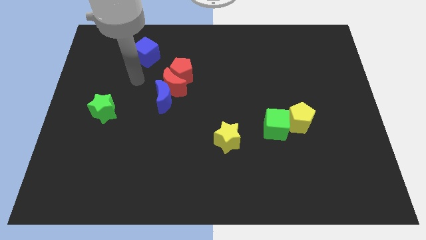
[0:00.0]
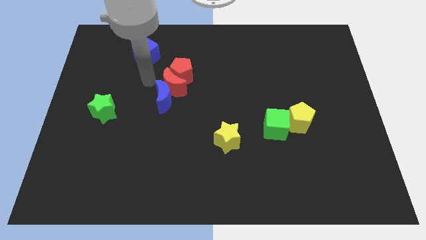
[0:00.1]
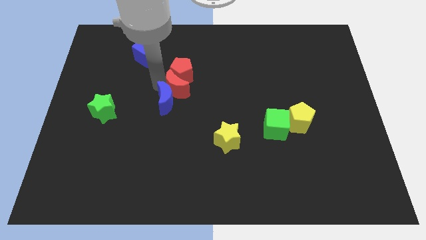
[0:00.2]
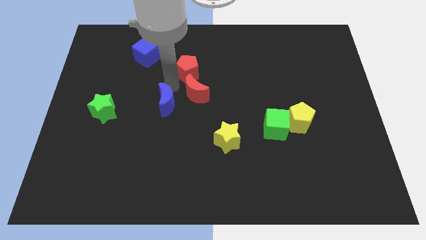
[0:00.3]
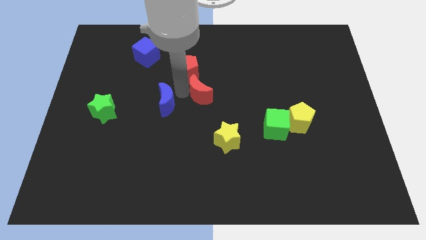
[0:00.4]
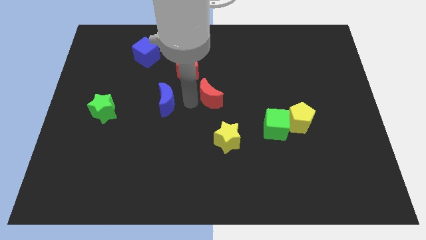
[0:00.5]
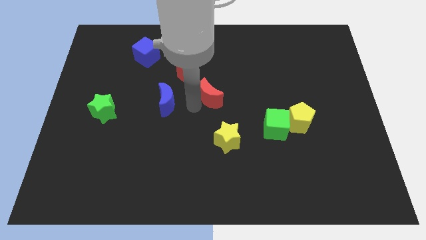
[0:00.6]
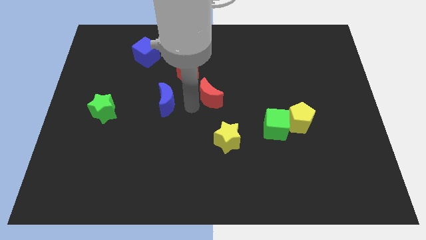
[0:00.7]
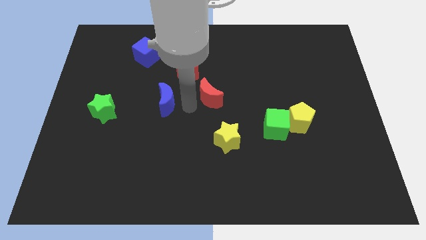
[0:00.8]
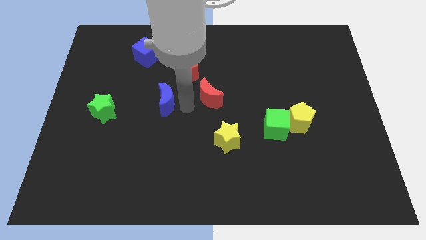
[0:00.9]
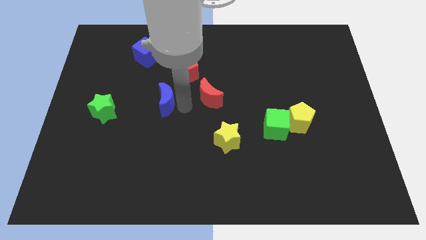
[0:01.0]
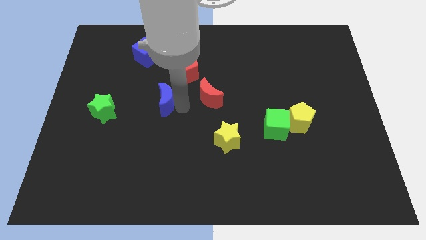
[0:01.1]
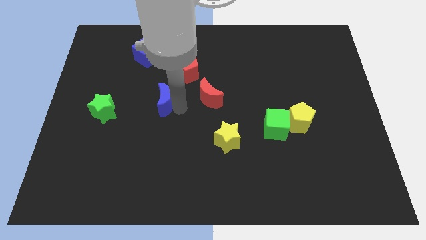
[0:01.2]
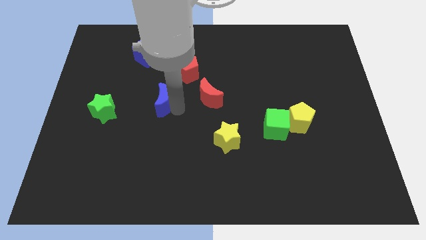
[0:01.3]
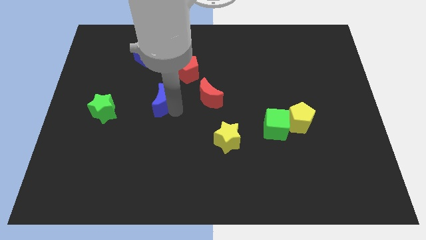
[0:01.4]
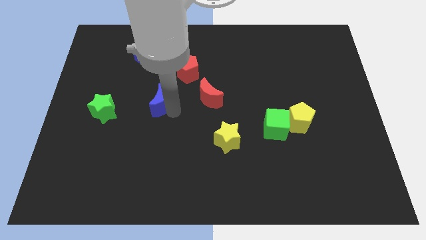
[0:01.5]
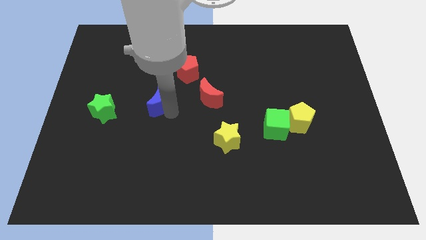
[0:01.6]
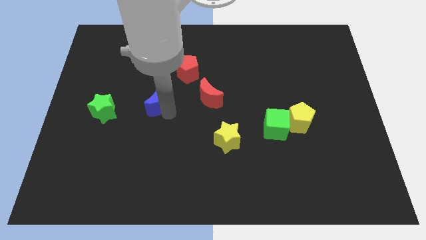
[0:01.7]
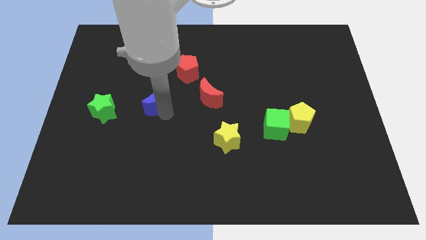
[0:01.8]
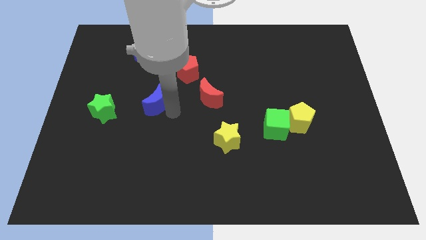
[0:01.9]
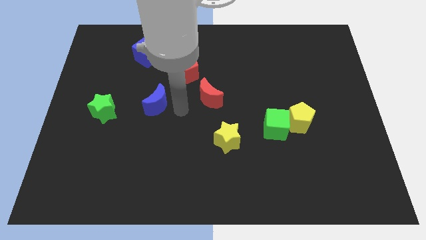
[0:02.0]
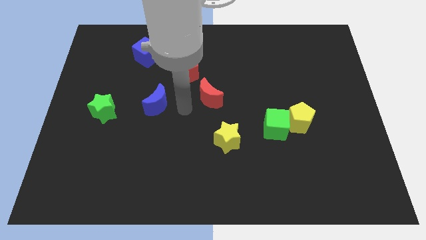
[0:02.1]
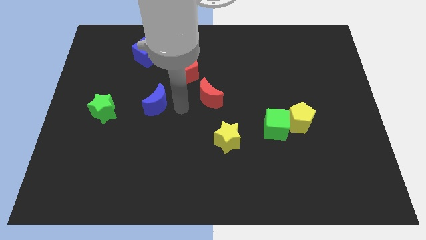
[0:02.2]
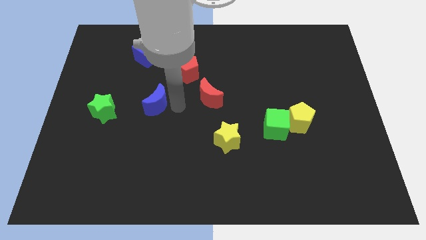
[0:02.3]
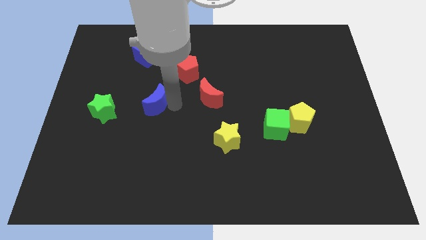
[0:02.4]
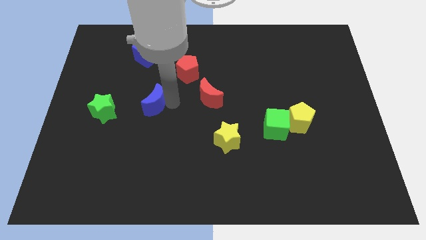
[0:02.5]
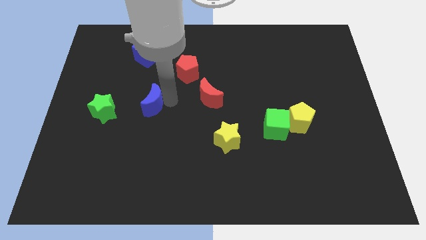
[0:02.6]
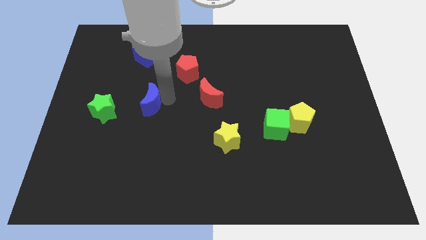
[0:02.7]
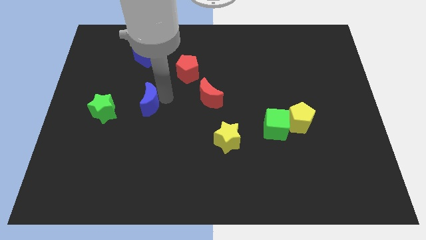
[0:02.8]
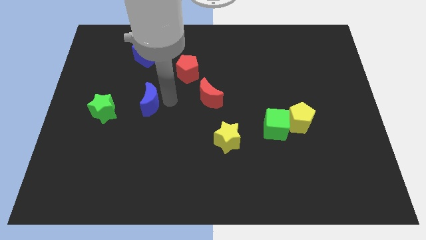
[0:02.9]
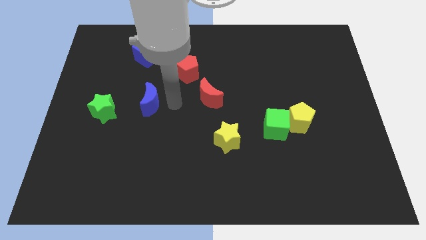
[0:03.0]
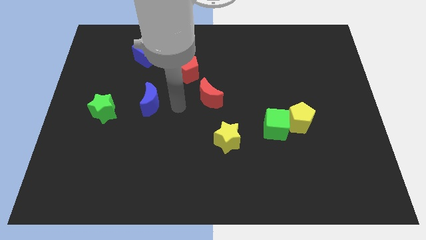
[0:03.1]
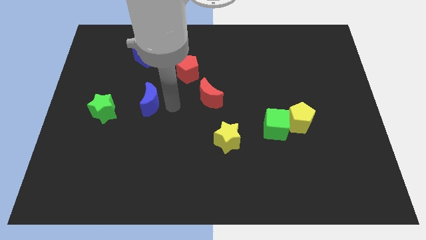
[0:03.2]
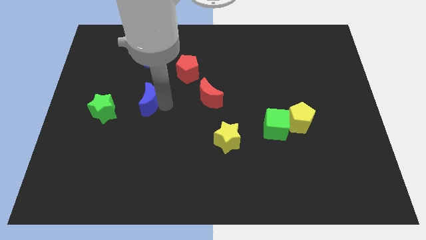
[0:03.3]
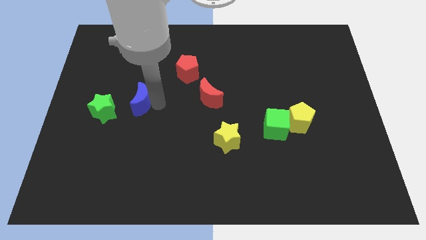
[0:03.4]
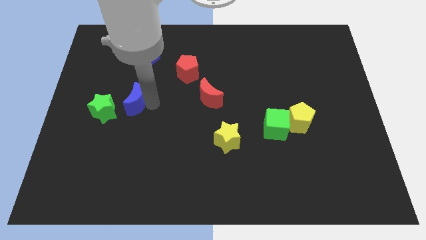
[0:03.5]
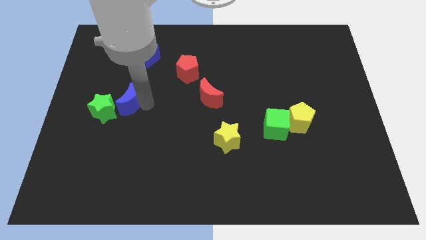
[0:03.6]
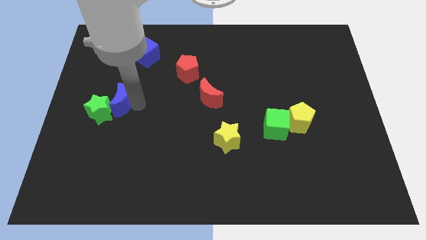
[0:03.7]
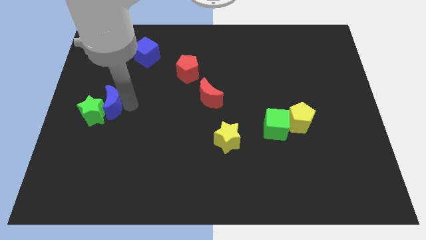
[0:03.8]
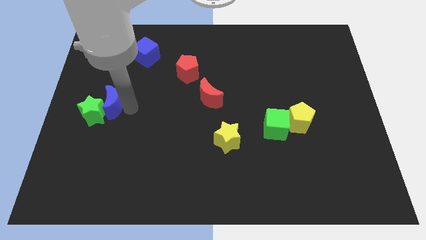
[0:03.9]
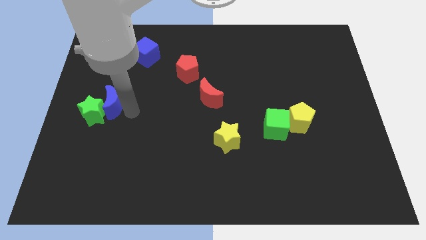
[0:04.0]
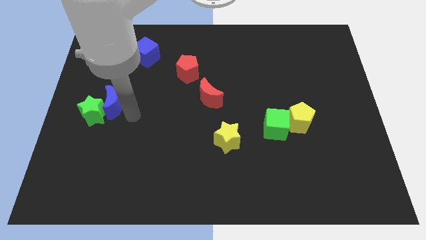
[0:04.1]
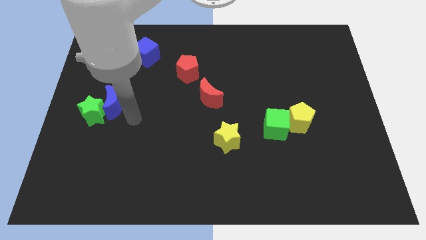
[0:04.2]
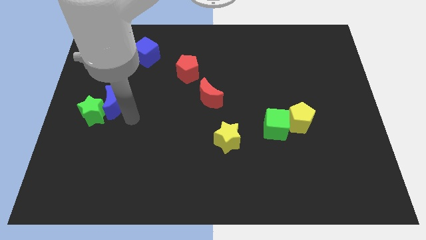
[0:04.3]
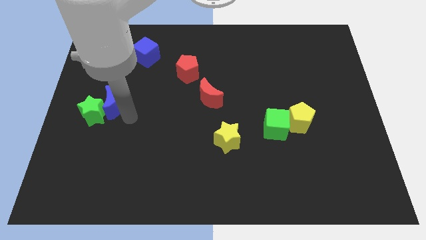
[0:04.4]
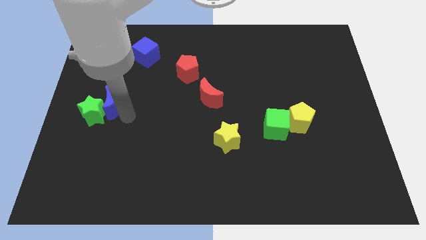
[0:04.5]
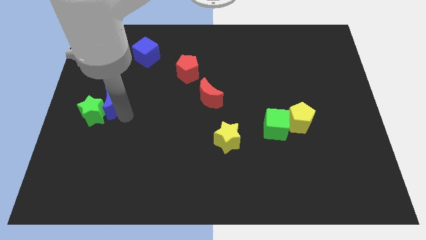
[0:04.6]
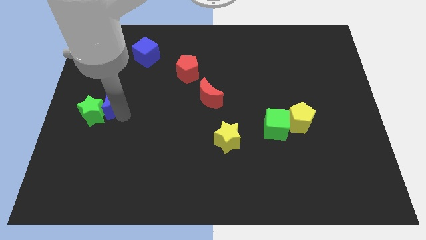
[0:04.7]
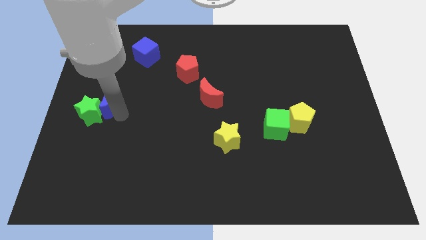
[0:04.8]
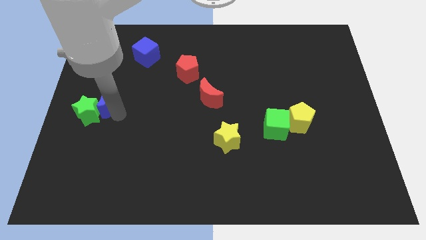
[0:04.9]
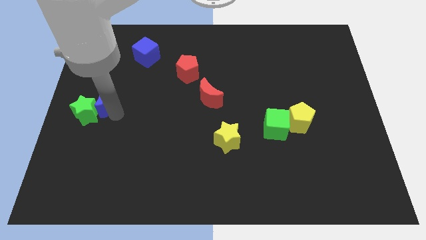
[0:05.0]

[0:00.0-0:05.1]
slide the blue moon to the center left

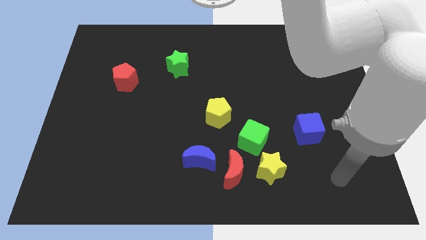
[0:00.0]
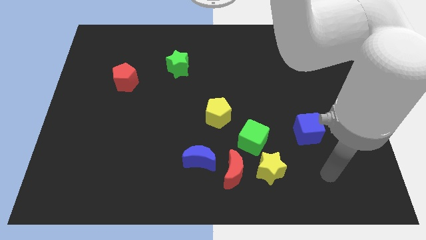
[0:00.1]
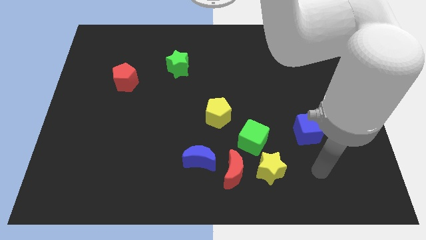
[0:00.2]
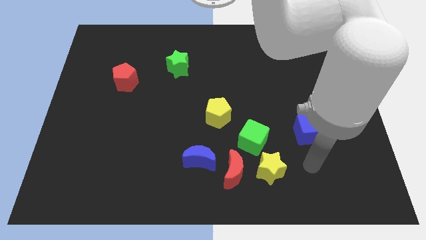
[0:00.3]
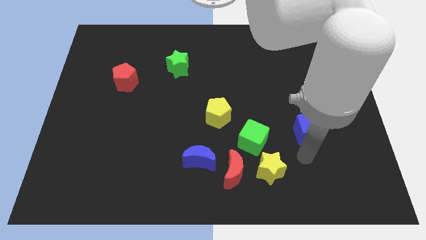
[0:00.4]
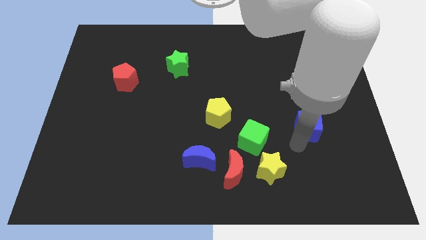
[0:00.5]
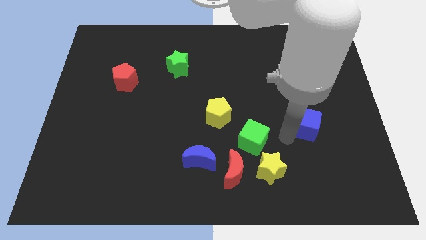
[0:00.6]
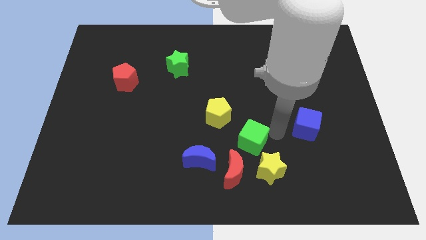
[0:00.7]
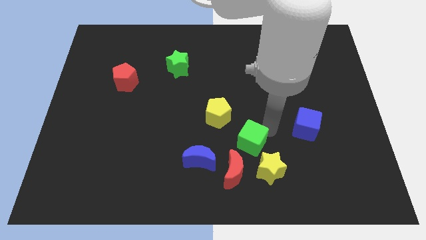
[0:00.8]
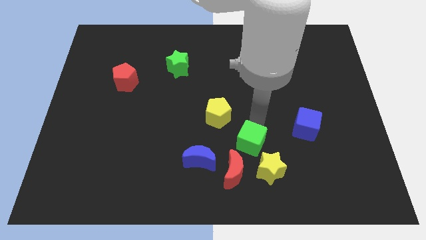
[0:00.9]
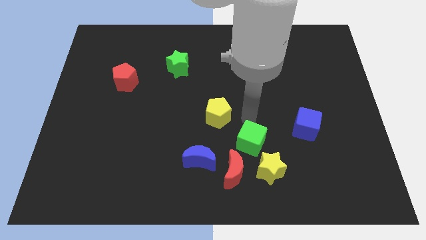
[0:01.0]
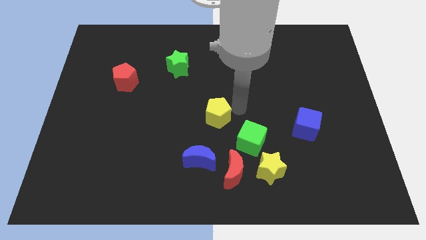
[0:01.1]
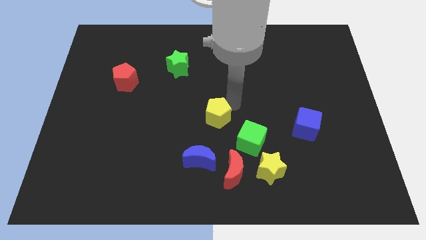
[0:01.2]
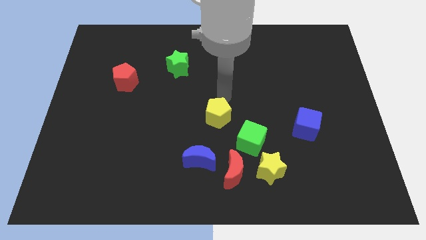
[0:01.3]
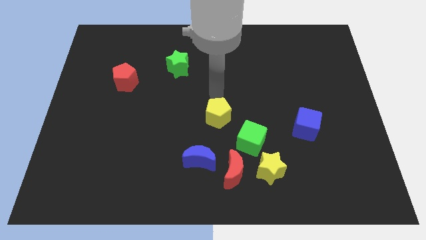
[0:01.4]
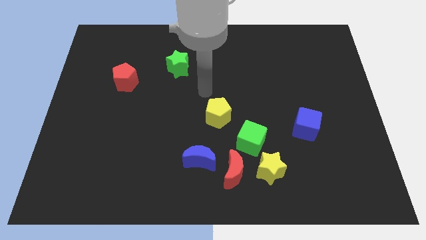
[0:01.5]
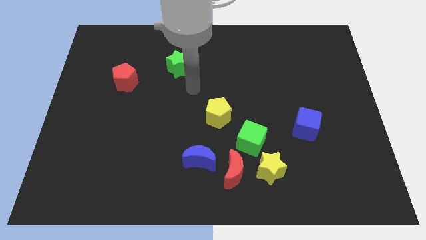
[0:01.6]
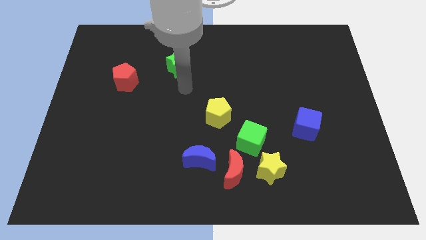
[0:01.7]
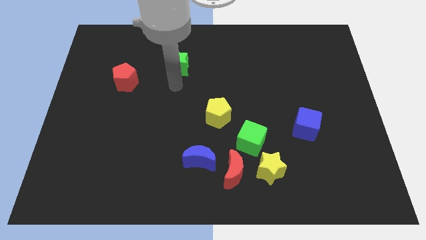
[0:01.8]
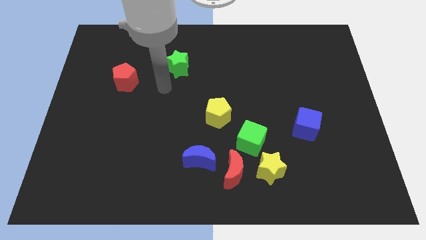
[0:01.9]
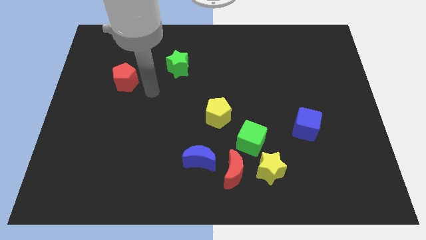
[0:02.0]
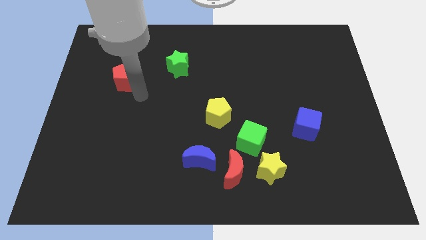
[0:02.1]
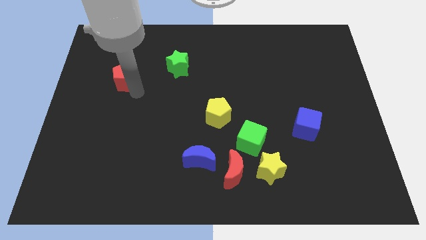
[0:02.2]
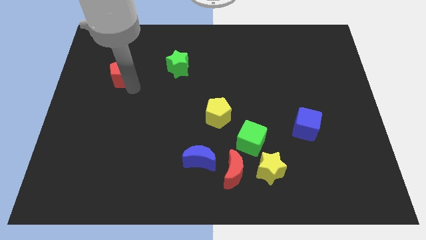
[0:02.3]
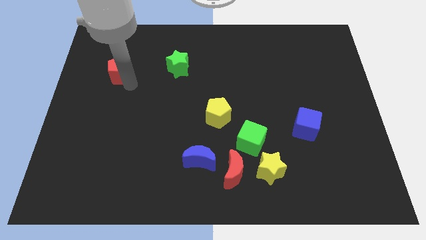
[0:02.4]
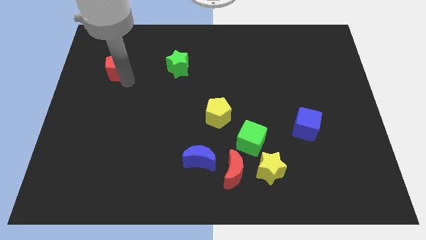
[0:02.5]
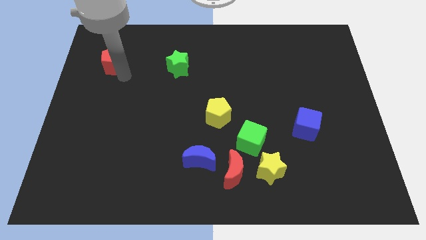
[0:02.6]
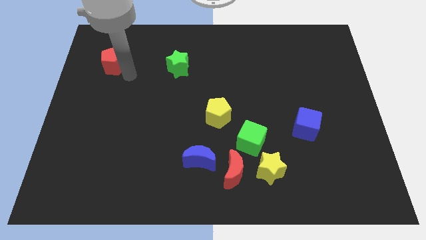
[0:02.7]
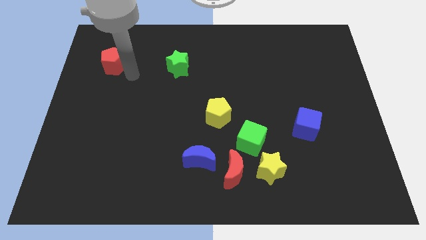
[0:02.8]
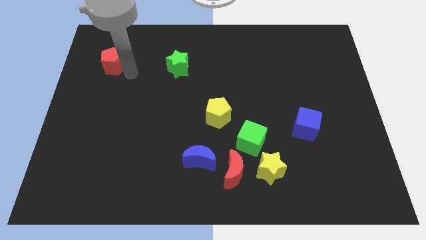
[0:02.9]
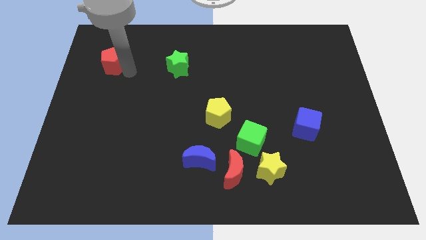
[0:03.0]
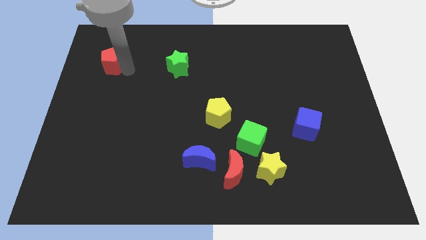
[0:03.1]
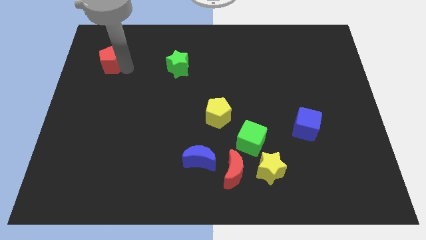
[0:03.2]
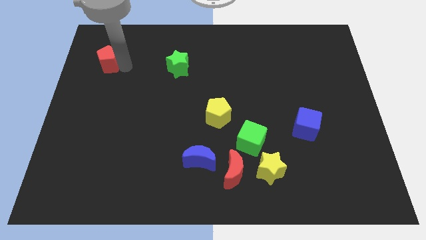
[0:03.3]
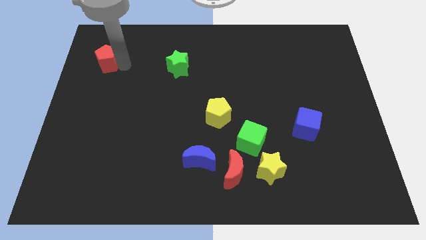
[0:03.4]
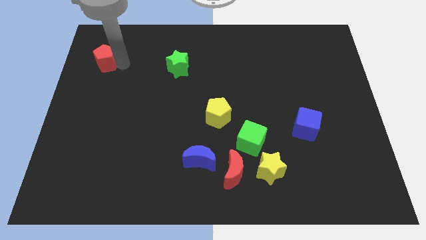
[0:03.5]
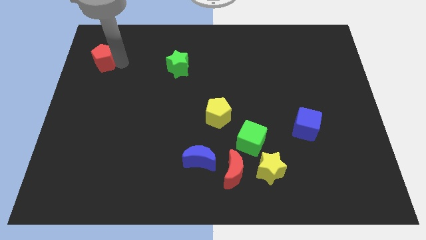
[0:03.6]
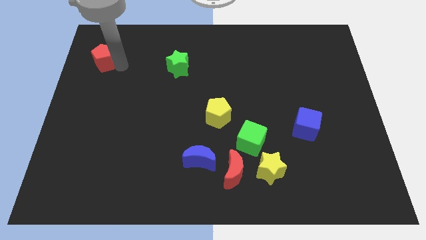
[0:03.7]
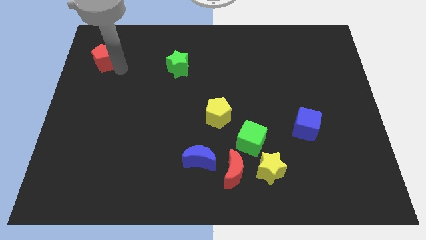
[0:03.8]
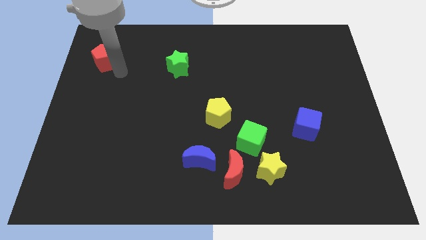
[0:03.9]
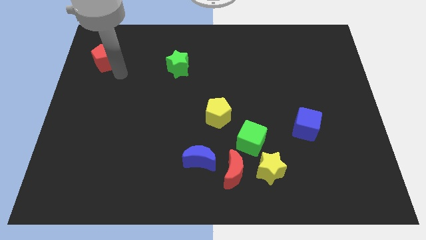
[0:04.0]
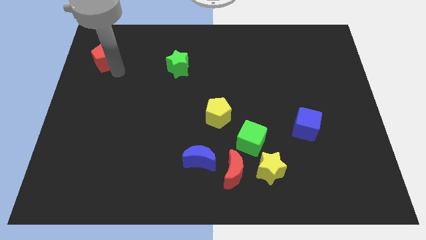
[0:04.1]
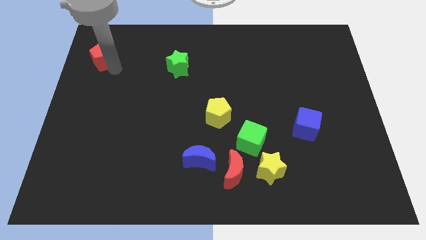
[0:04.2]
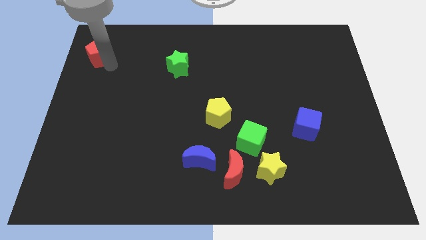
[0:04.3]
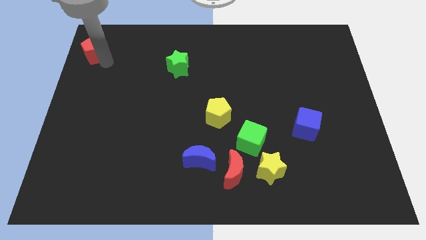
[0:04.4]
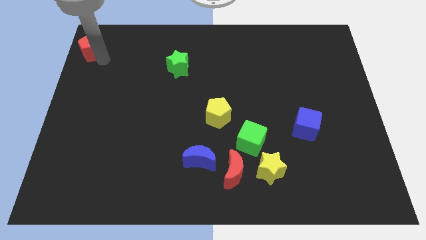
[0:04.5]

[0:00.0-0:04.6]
move the red pentagon to the upper left corner
